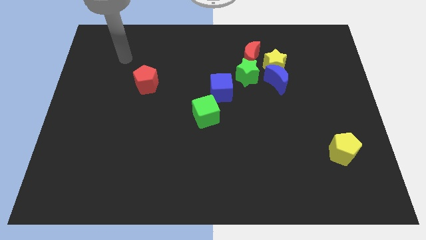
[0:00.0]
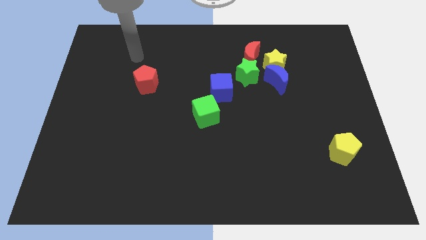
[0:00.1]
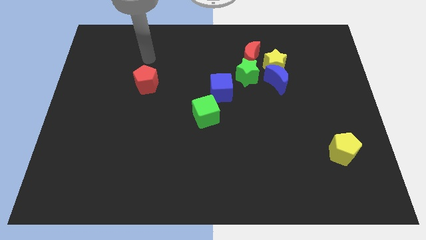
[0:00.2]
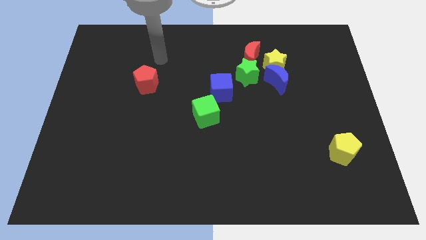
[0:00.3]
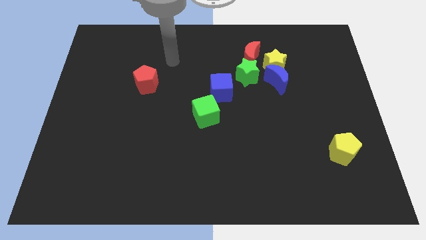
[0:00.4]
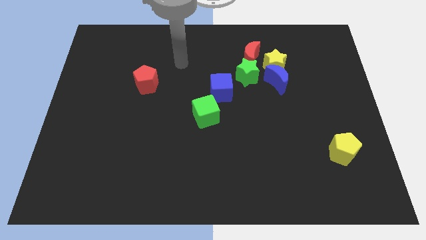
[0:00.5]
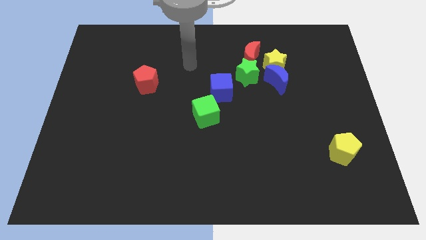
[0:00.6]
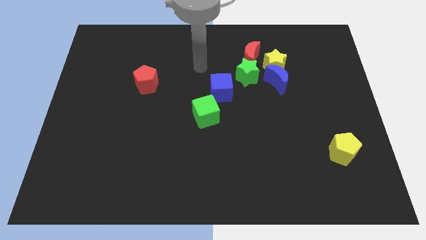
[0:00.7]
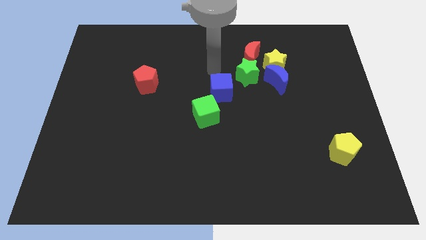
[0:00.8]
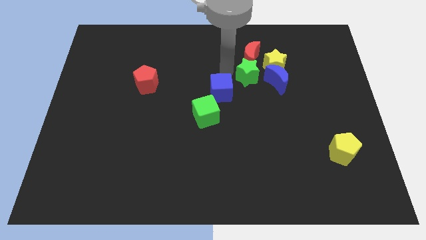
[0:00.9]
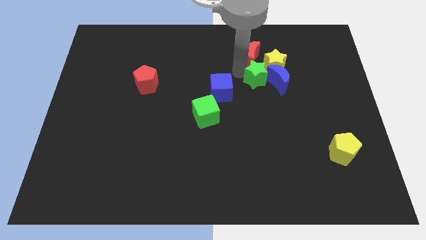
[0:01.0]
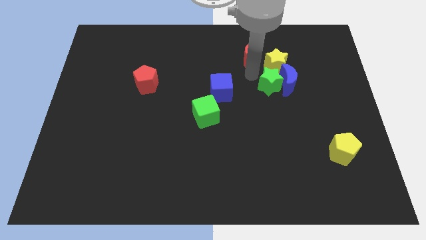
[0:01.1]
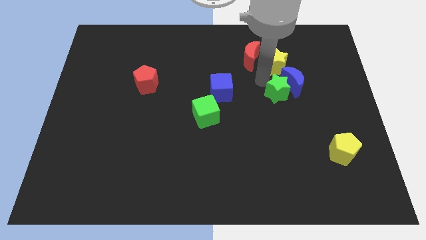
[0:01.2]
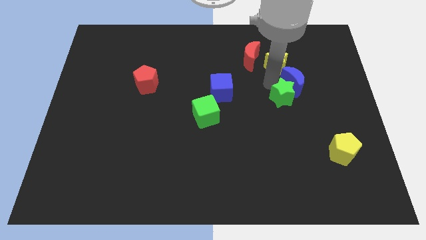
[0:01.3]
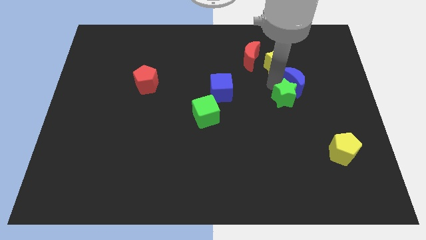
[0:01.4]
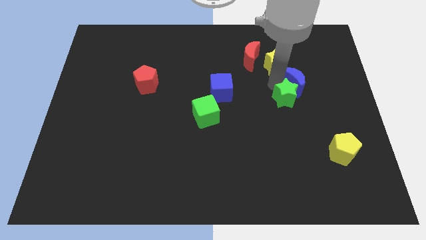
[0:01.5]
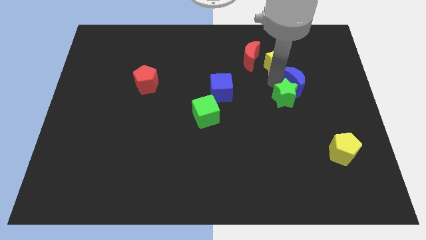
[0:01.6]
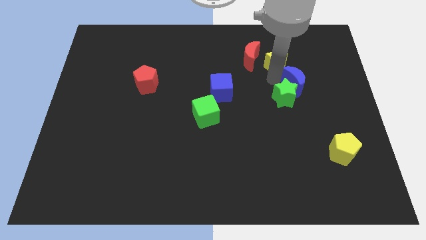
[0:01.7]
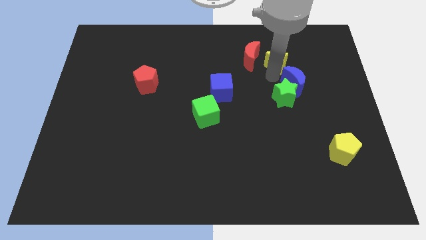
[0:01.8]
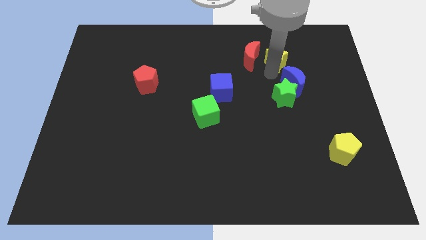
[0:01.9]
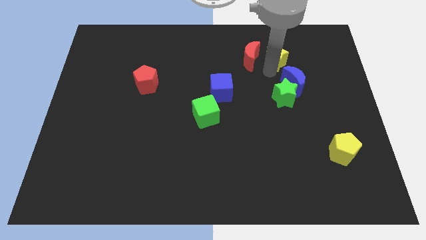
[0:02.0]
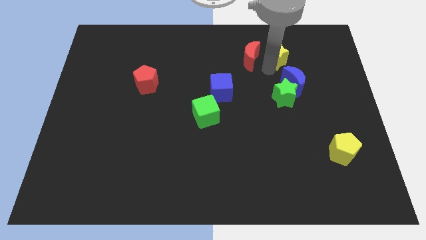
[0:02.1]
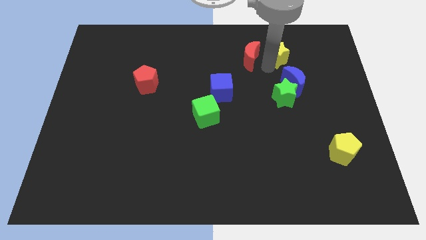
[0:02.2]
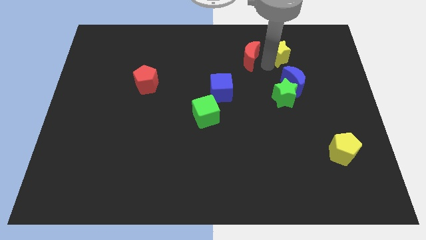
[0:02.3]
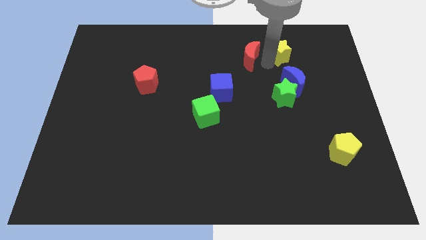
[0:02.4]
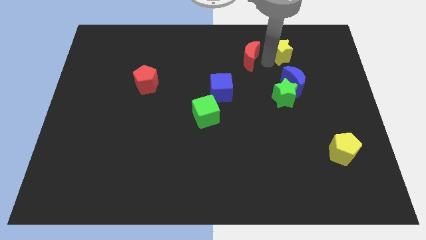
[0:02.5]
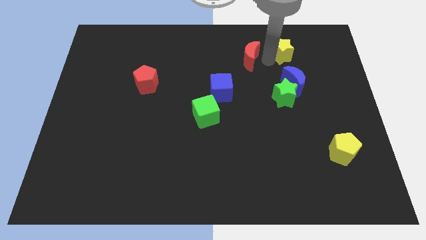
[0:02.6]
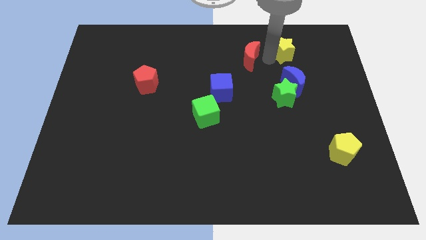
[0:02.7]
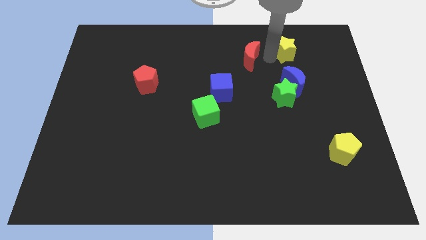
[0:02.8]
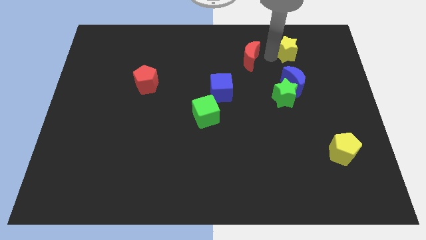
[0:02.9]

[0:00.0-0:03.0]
separate the yellow star from the group

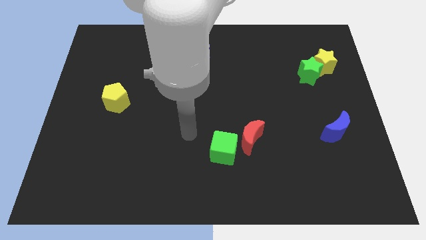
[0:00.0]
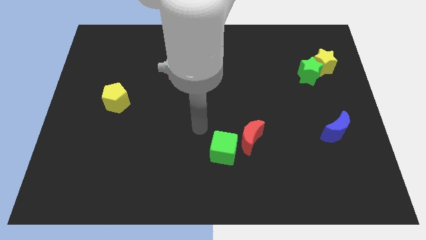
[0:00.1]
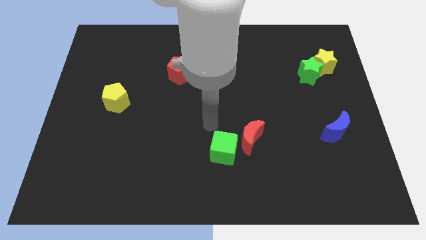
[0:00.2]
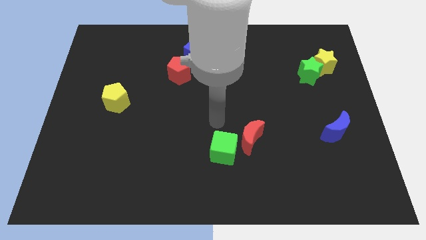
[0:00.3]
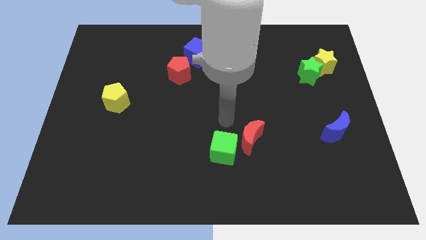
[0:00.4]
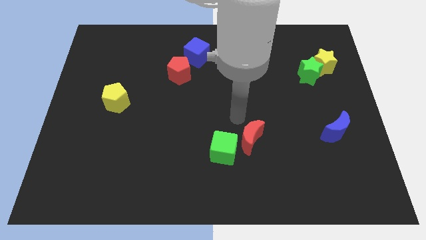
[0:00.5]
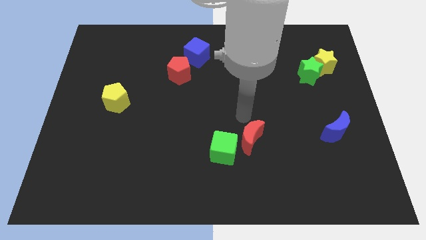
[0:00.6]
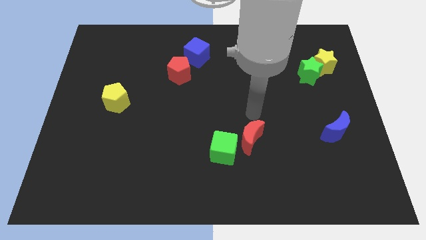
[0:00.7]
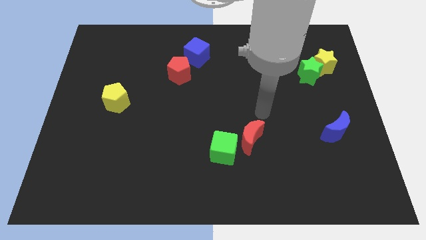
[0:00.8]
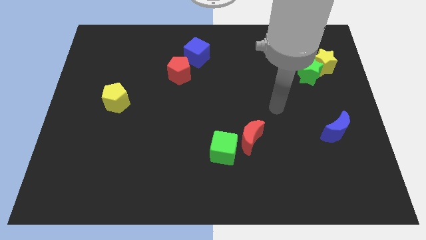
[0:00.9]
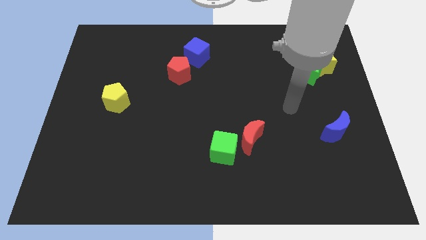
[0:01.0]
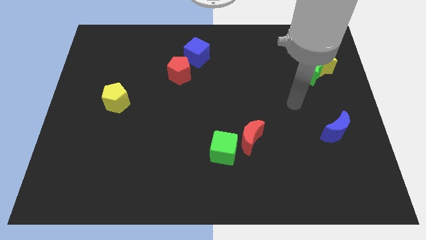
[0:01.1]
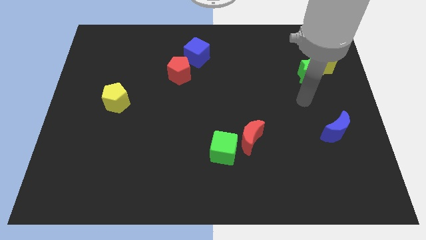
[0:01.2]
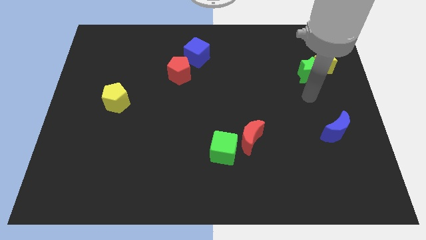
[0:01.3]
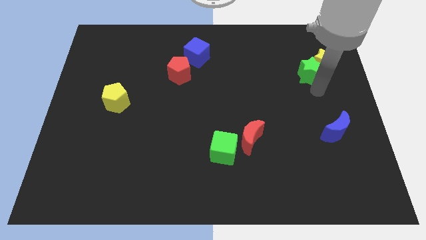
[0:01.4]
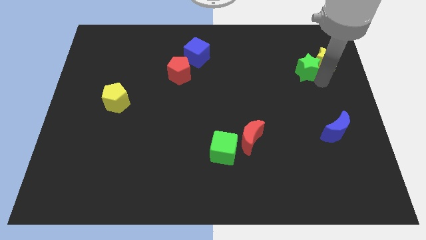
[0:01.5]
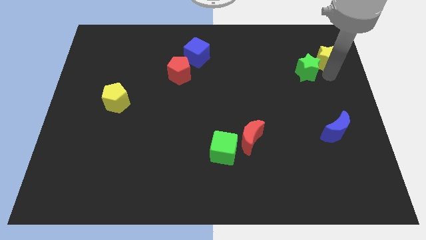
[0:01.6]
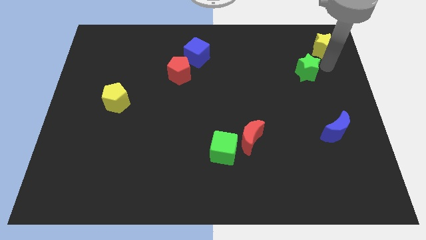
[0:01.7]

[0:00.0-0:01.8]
move the green star away from the yellow star

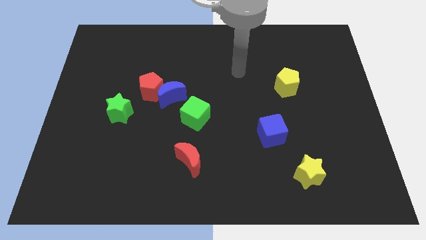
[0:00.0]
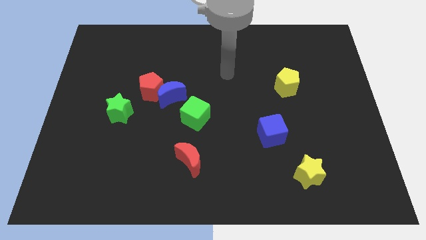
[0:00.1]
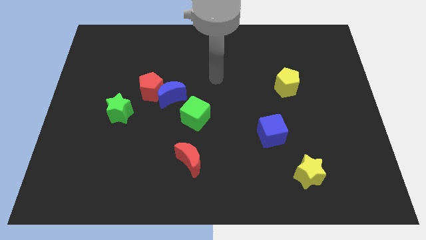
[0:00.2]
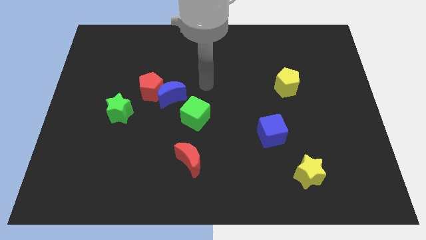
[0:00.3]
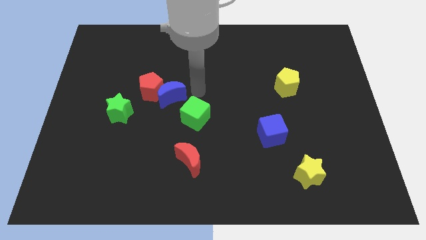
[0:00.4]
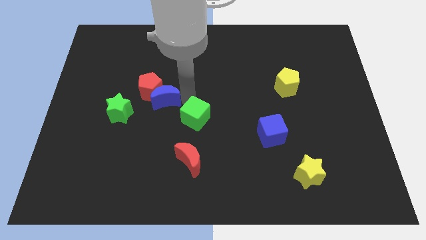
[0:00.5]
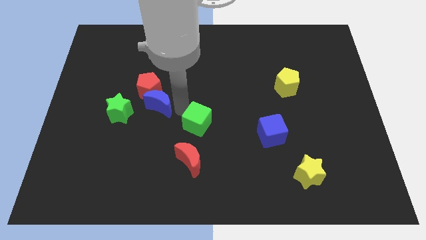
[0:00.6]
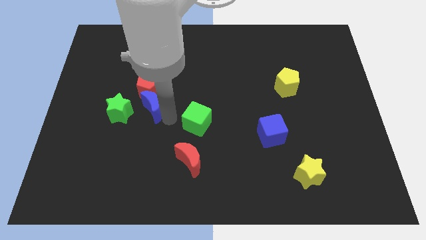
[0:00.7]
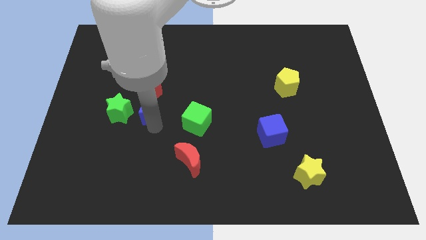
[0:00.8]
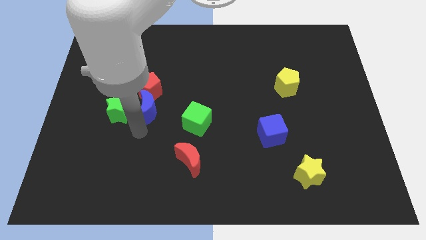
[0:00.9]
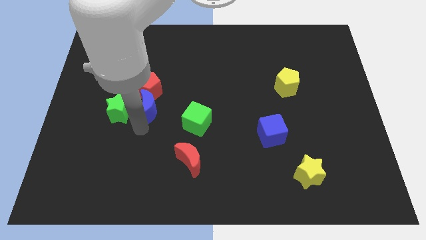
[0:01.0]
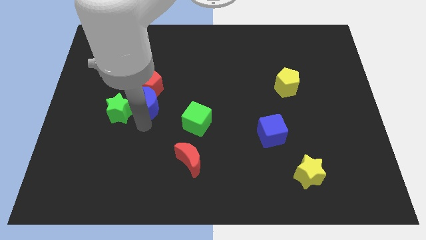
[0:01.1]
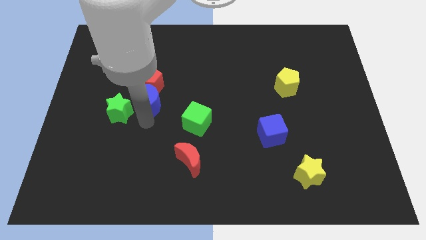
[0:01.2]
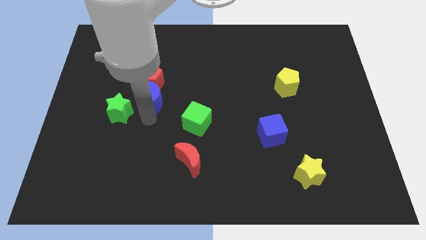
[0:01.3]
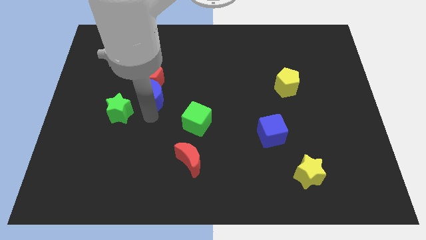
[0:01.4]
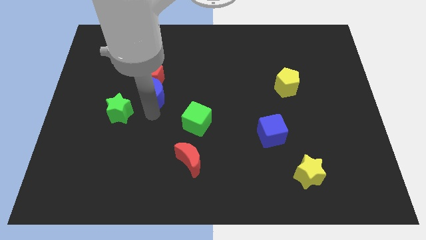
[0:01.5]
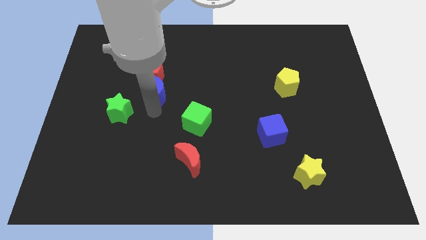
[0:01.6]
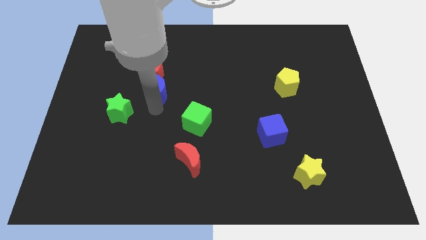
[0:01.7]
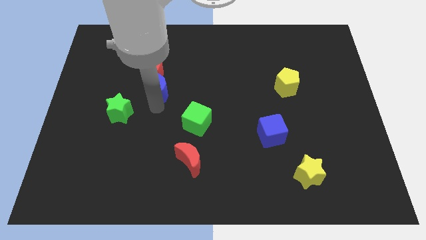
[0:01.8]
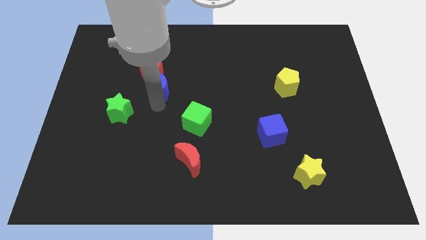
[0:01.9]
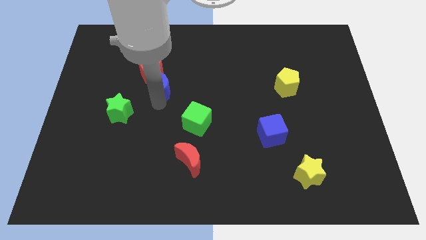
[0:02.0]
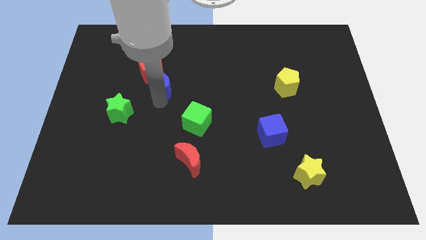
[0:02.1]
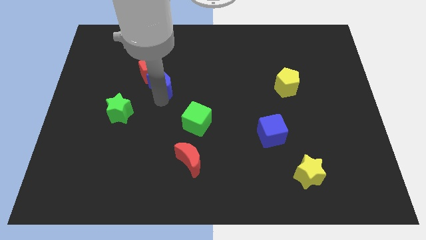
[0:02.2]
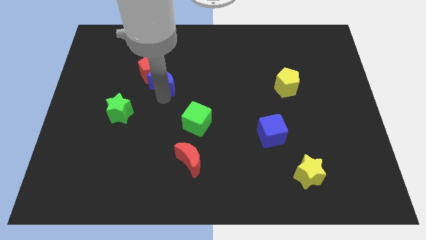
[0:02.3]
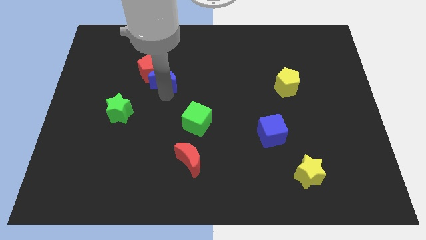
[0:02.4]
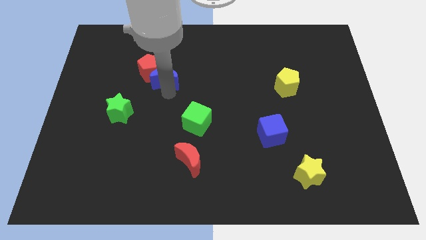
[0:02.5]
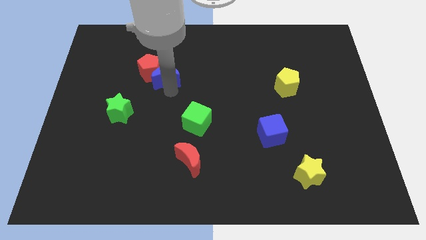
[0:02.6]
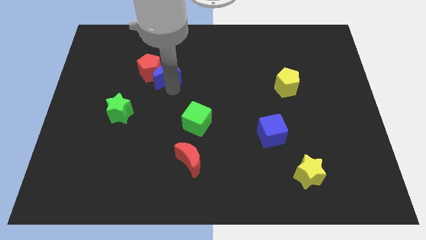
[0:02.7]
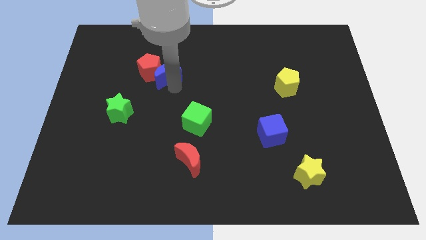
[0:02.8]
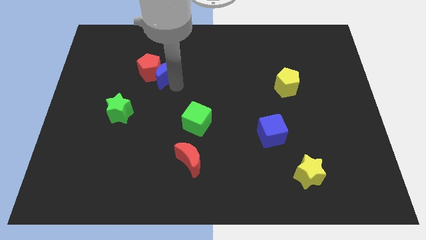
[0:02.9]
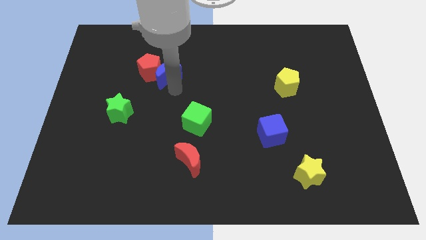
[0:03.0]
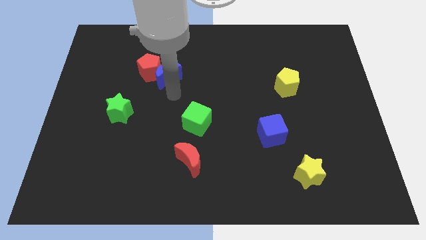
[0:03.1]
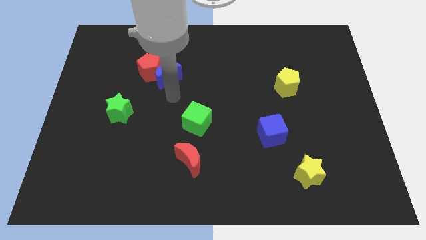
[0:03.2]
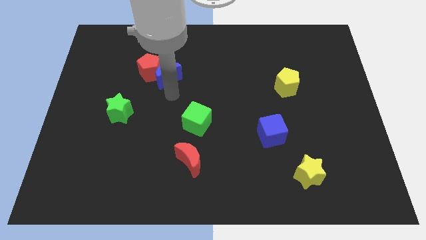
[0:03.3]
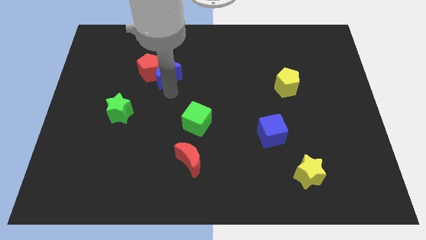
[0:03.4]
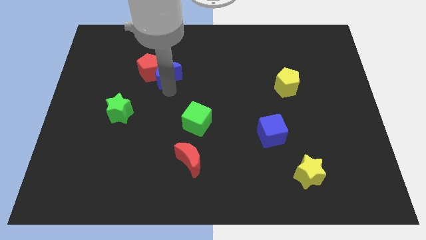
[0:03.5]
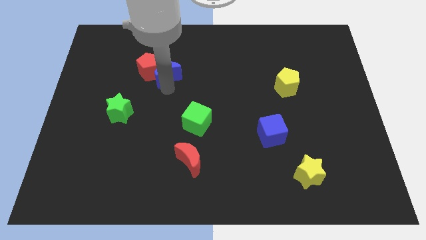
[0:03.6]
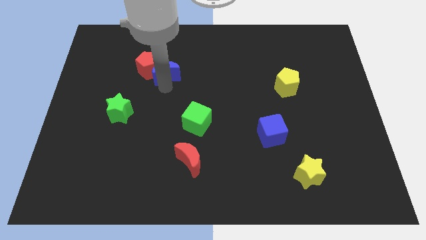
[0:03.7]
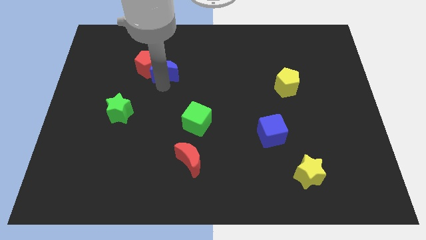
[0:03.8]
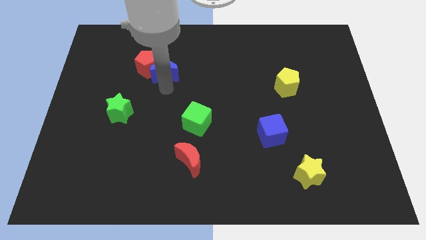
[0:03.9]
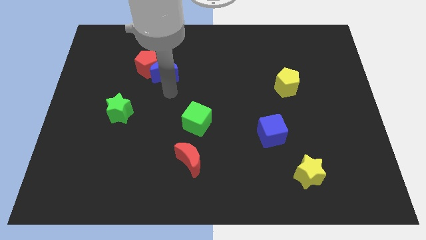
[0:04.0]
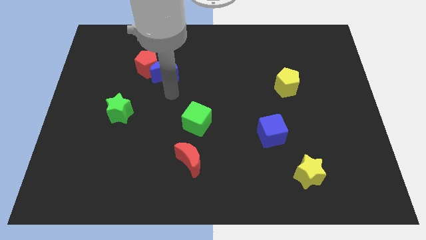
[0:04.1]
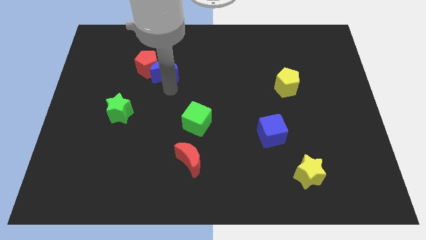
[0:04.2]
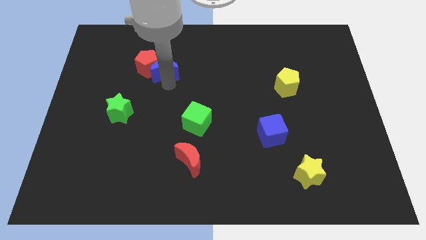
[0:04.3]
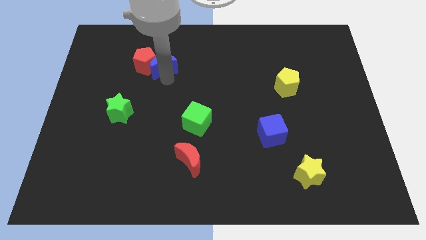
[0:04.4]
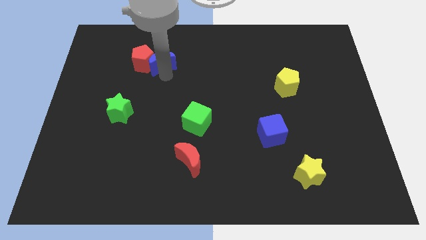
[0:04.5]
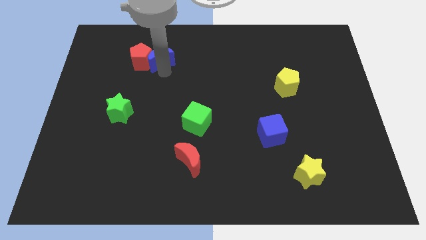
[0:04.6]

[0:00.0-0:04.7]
move the blue moon away from the red pentagon and green cube
